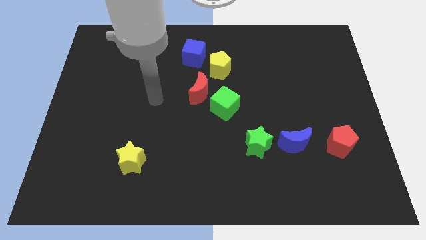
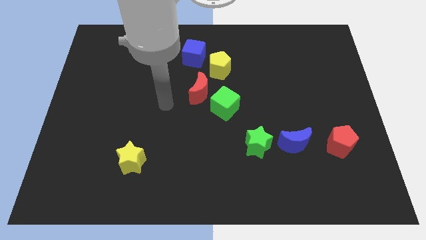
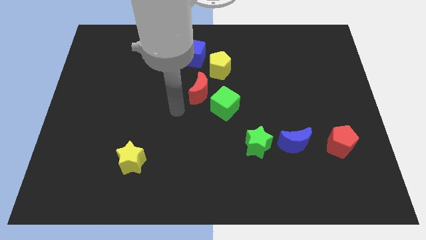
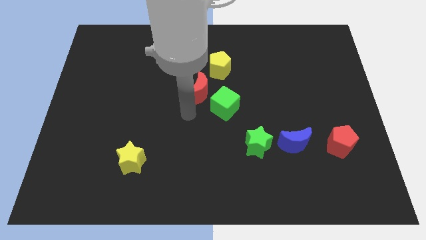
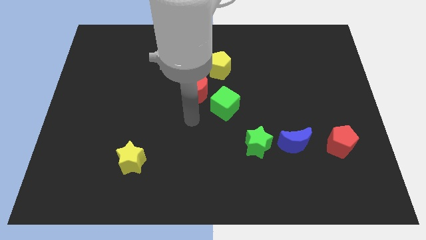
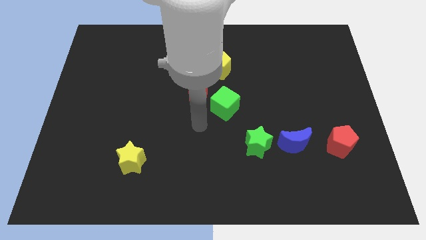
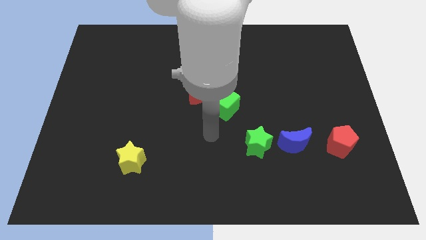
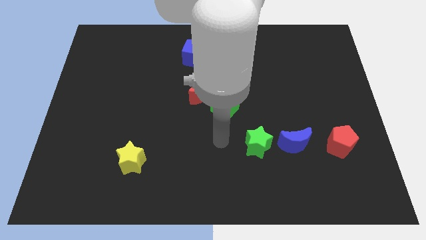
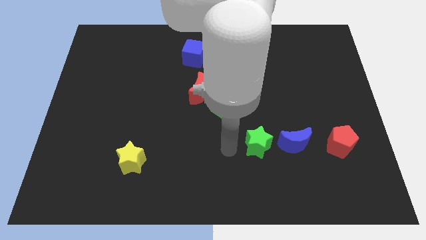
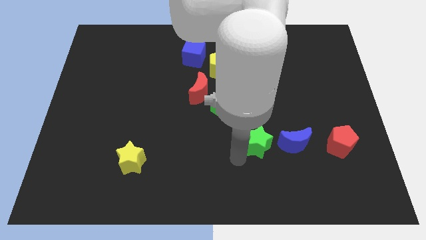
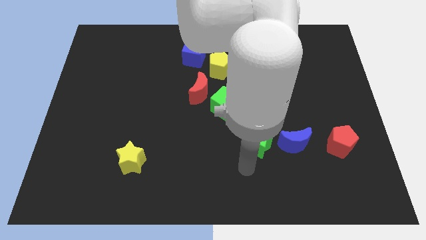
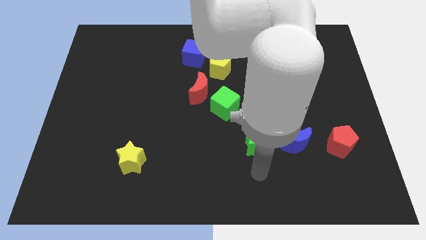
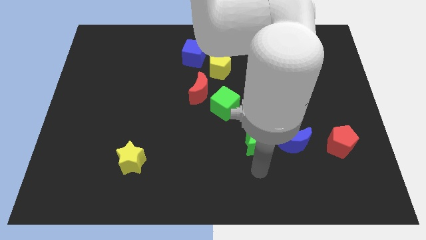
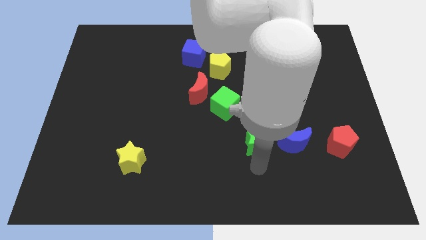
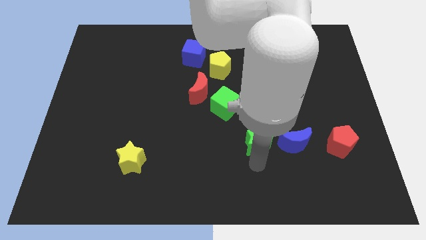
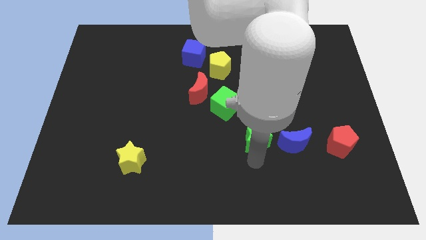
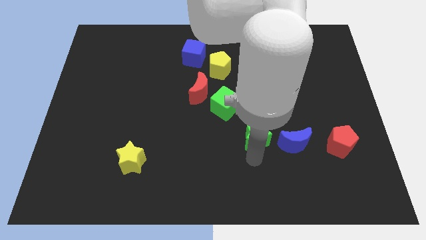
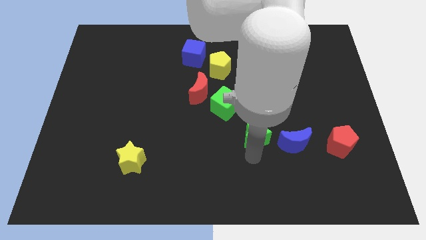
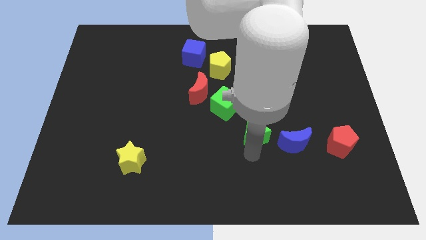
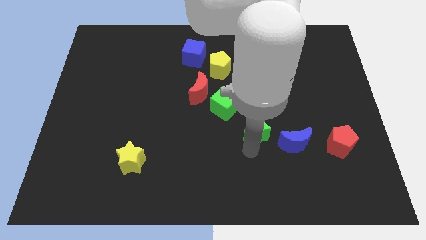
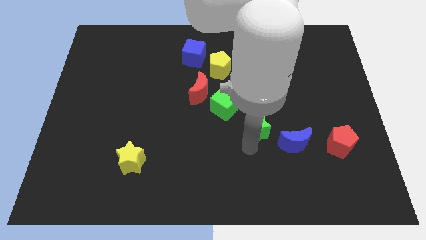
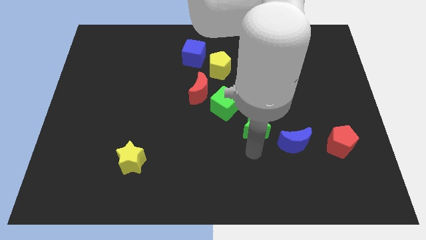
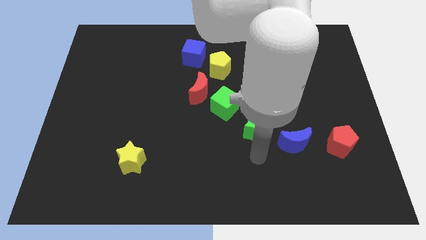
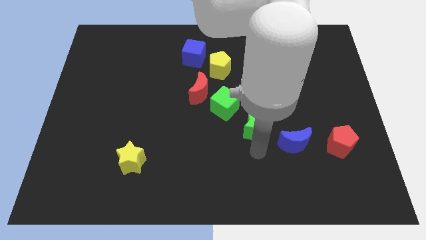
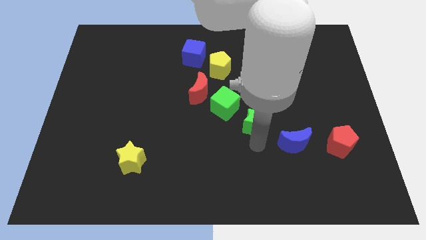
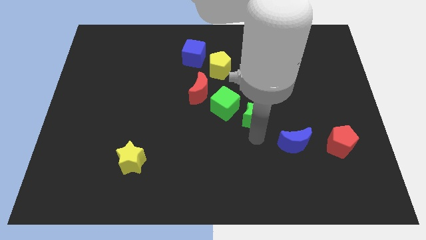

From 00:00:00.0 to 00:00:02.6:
move the green star upwards a little bit

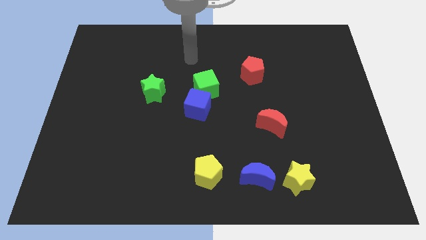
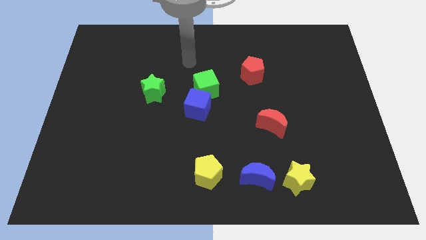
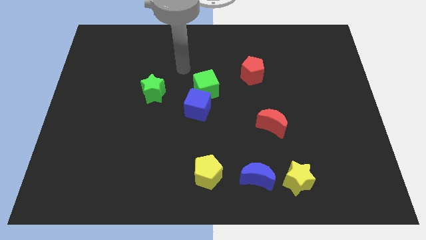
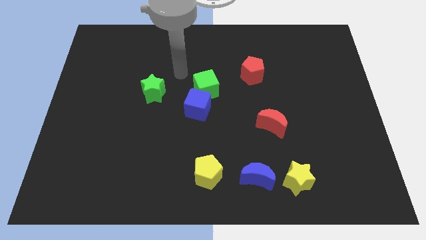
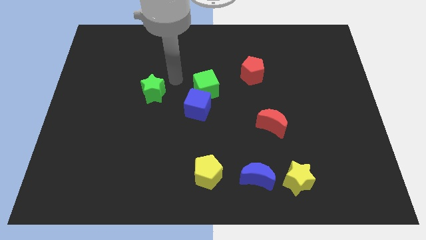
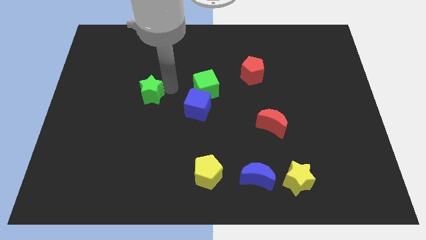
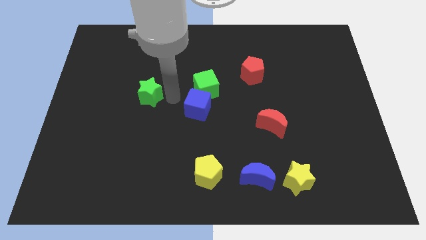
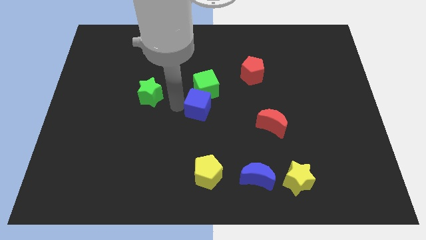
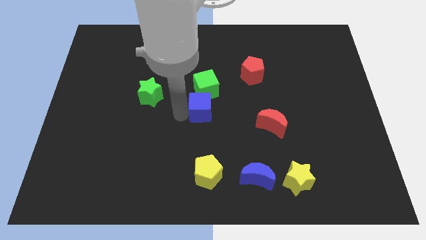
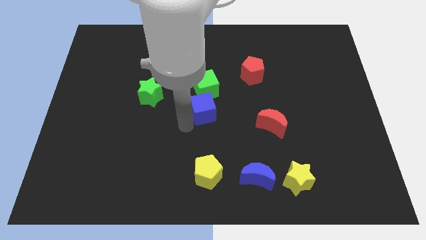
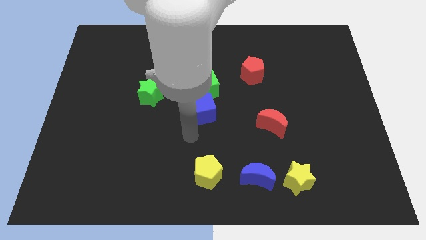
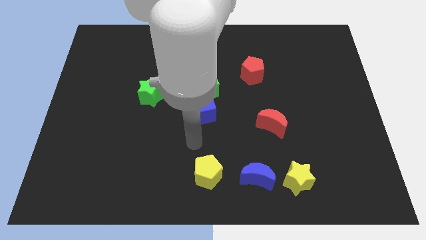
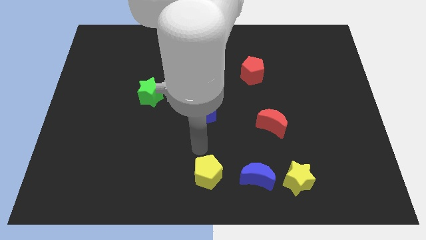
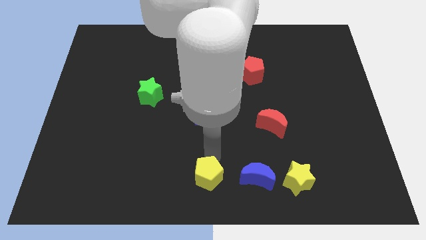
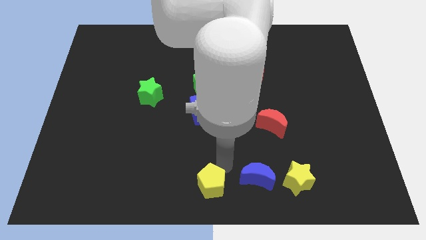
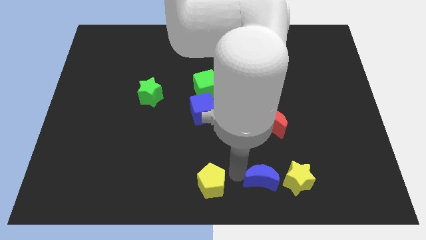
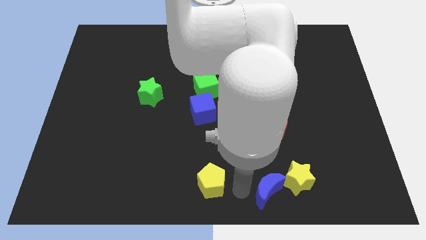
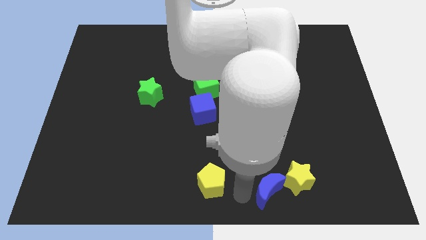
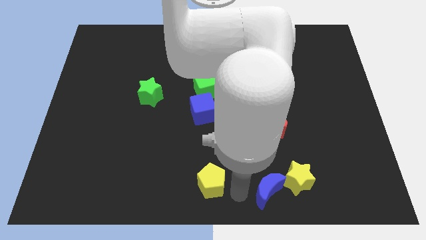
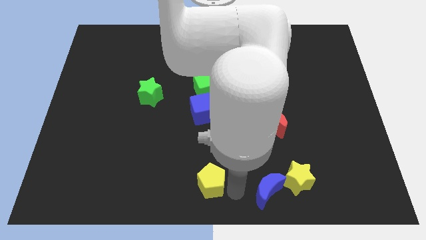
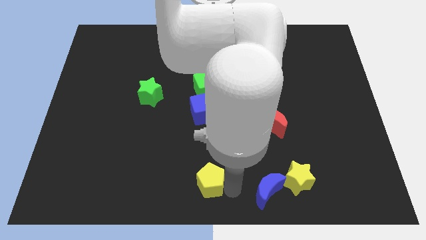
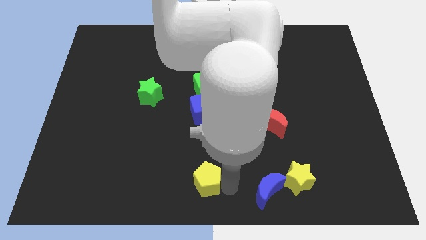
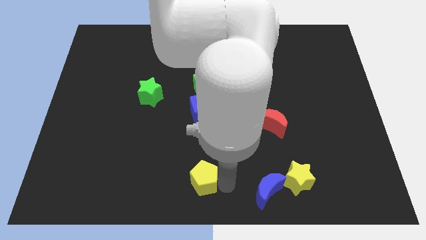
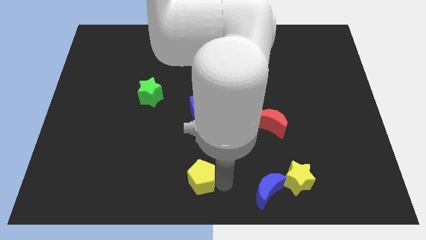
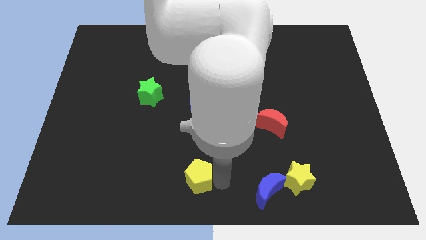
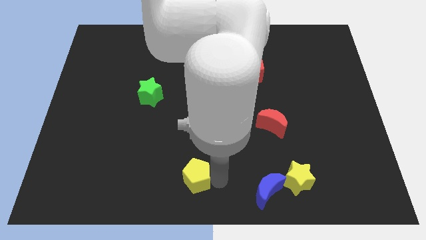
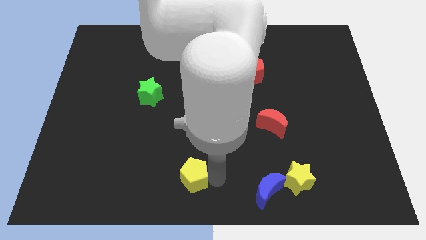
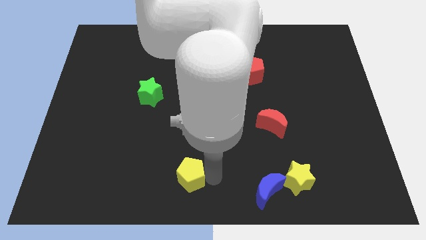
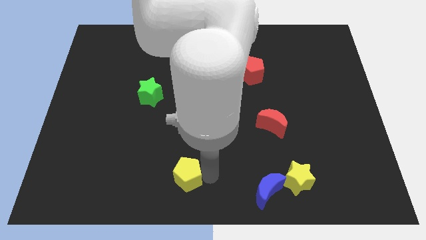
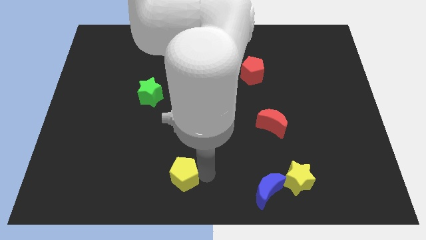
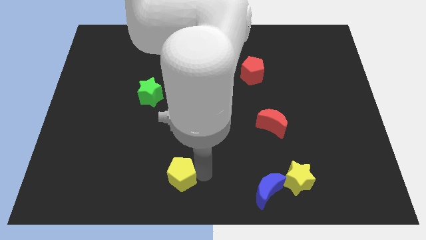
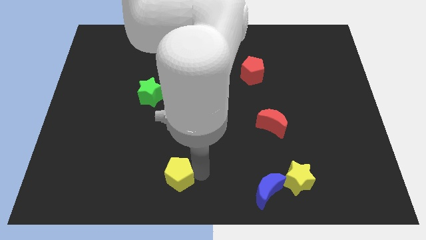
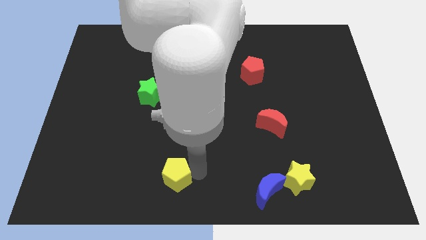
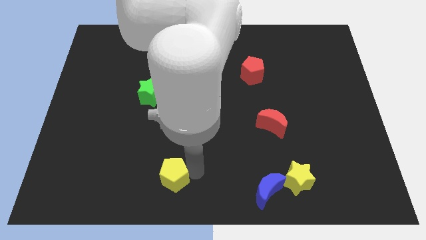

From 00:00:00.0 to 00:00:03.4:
slightly move the yellow pentagon left

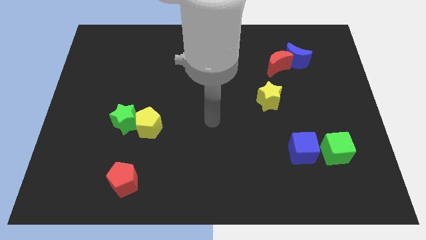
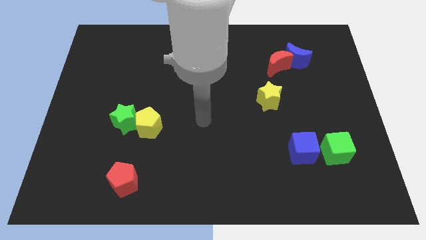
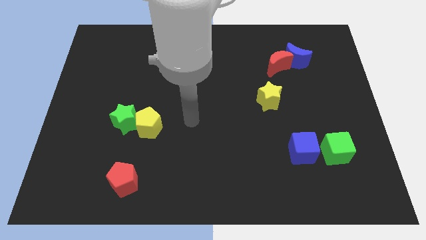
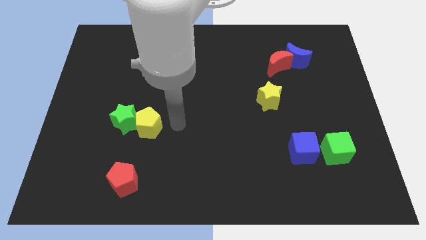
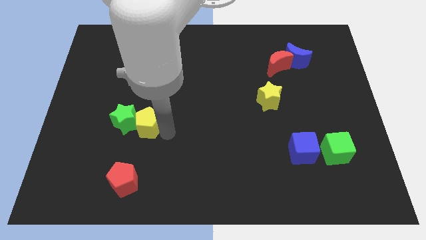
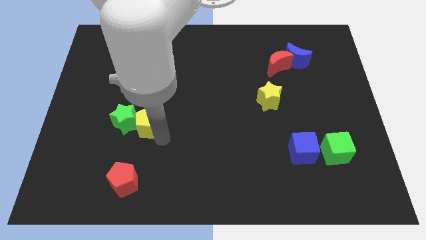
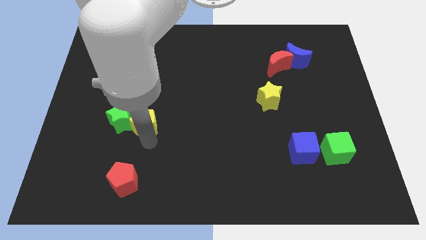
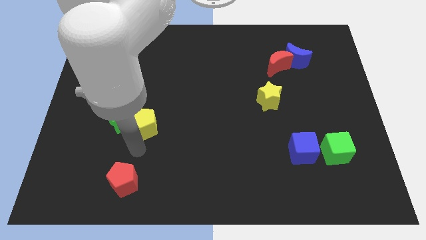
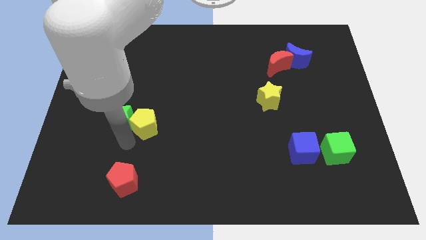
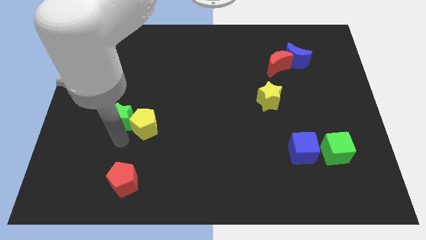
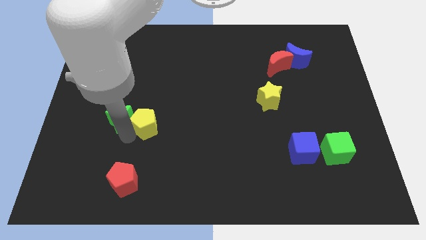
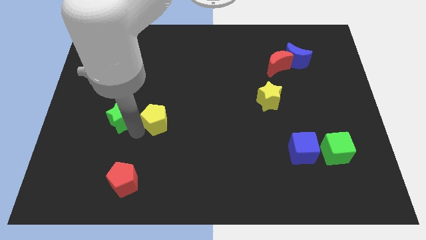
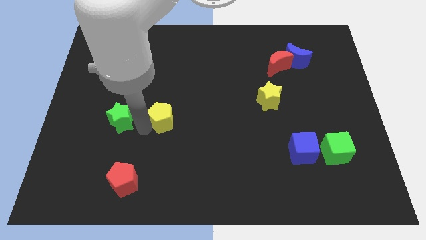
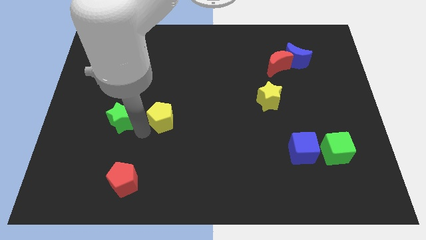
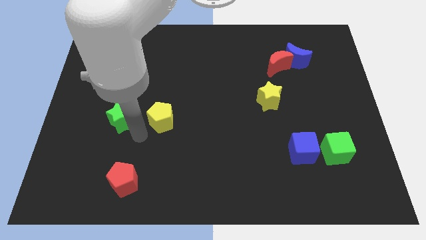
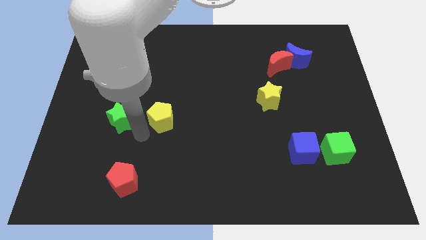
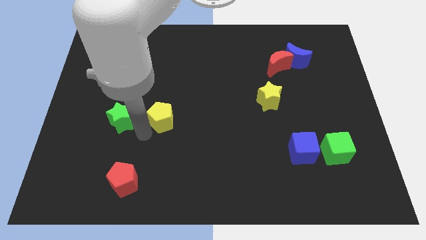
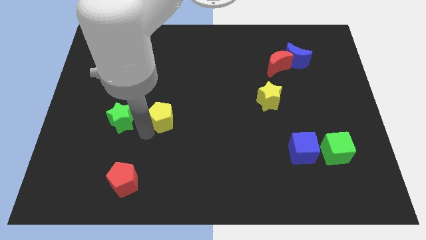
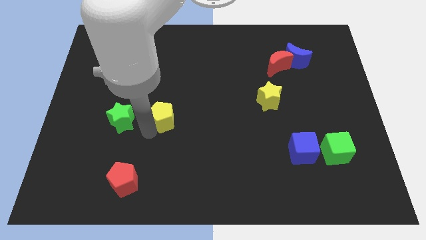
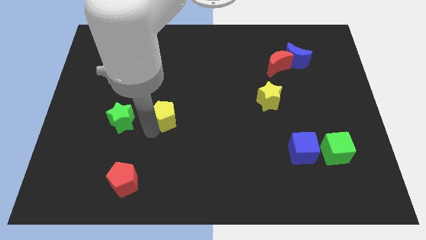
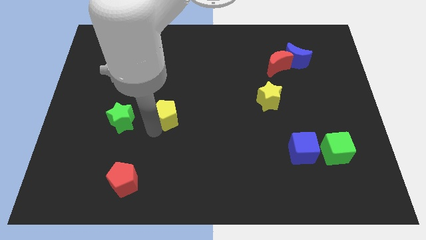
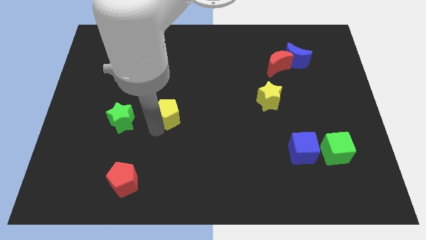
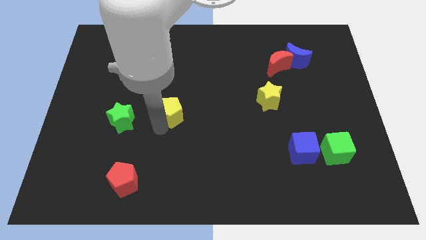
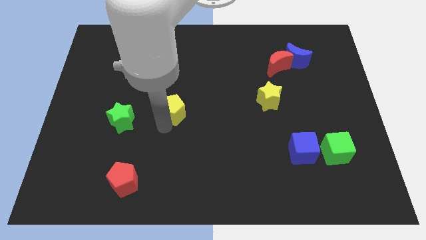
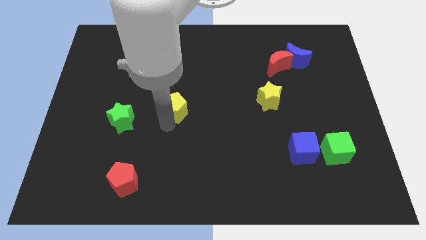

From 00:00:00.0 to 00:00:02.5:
slightly move the yellow pentagon upwards and right diagonally

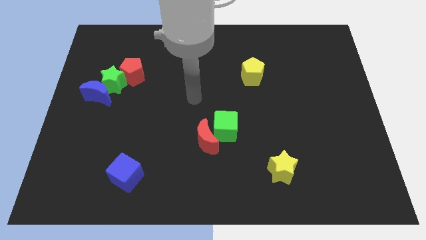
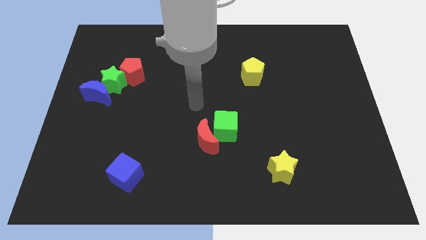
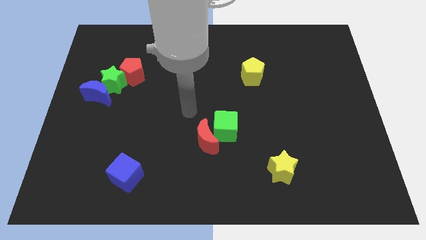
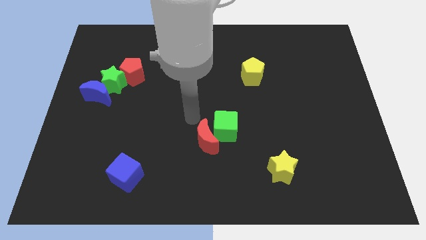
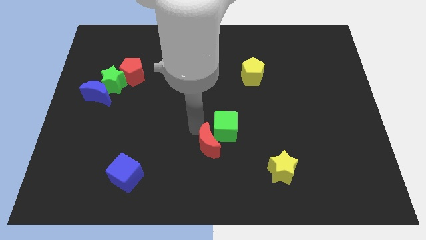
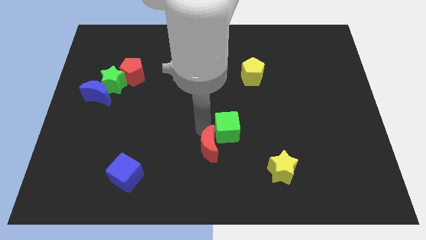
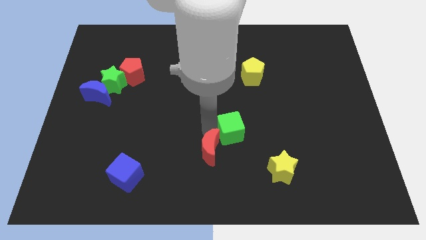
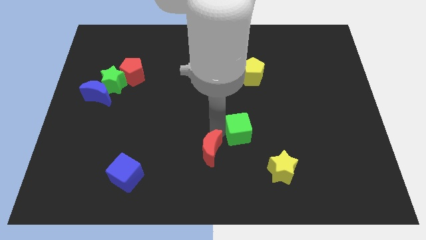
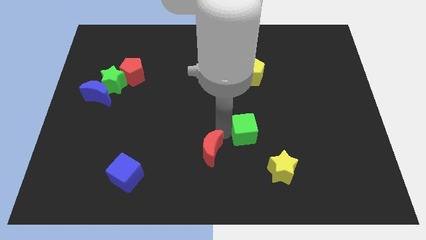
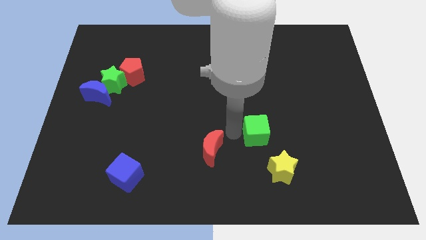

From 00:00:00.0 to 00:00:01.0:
push the green cube a little bit to the right
